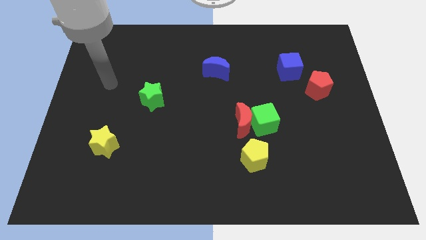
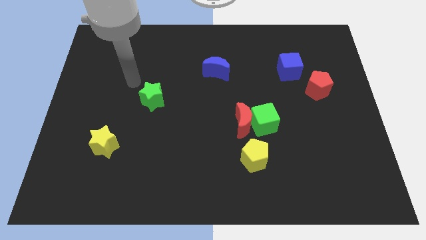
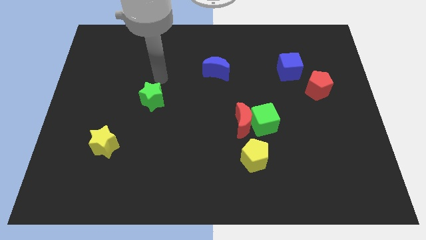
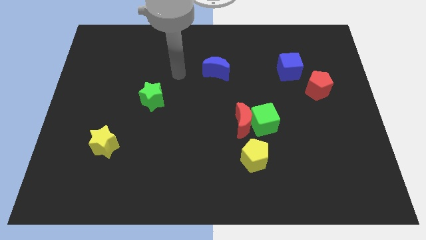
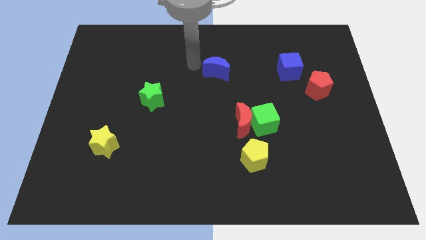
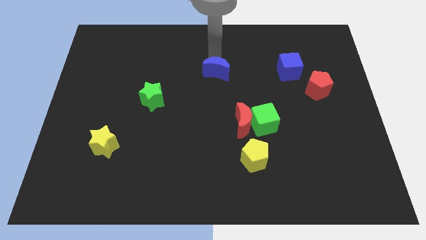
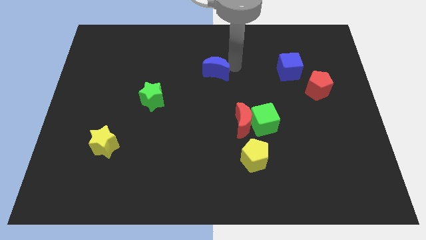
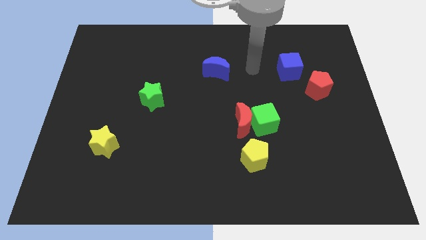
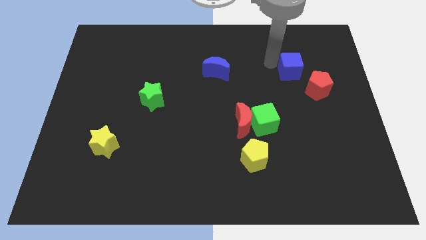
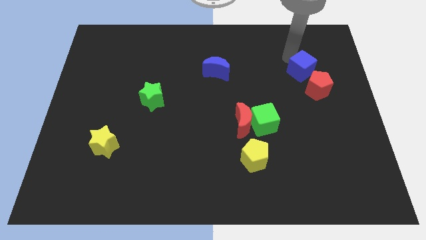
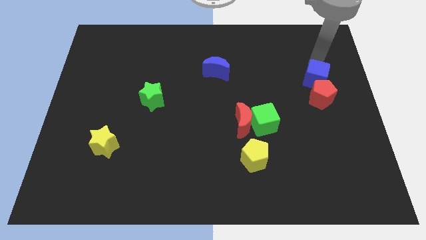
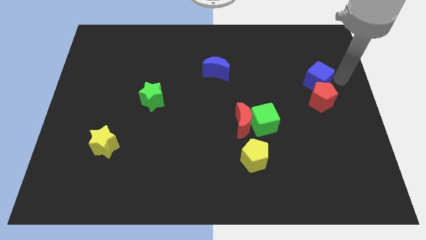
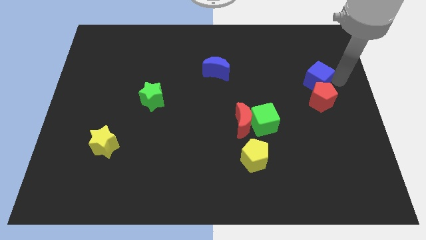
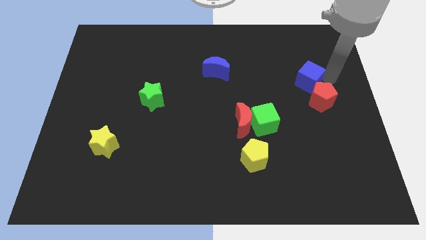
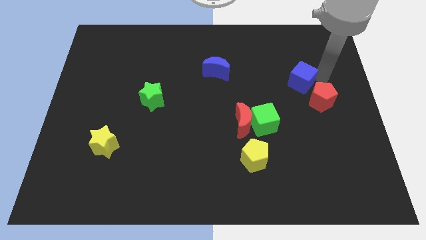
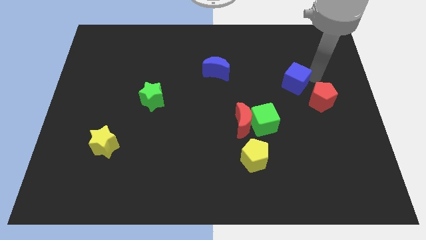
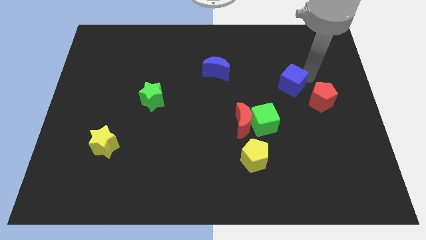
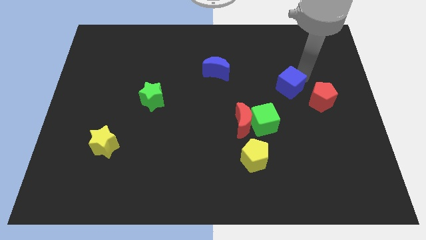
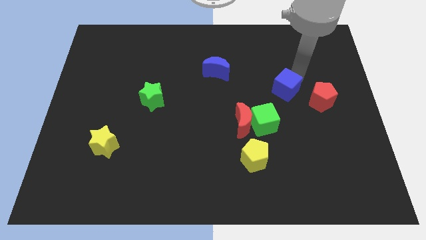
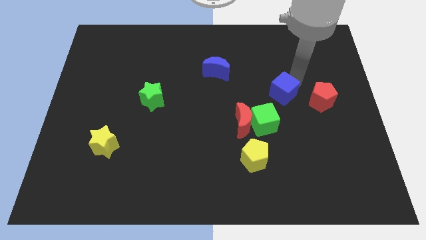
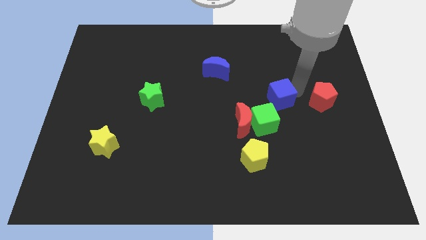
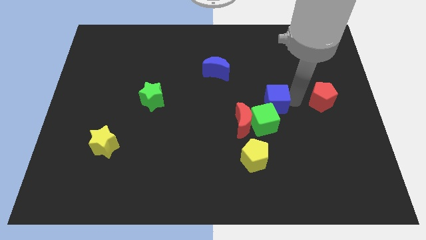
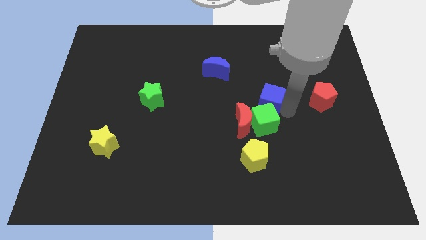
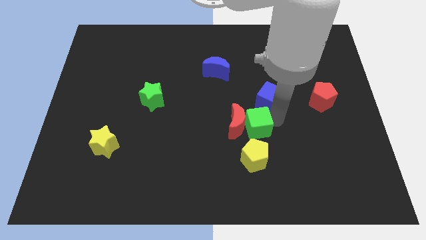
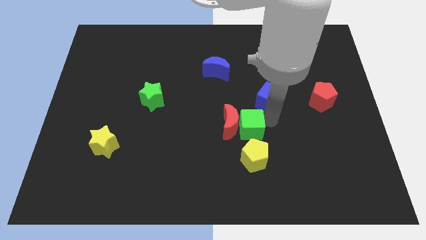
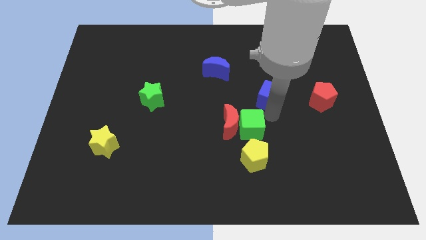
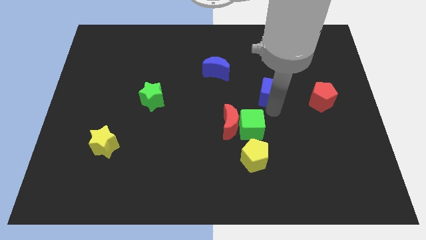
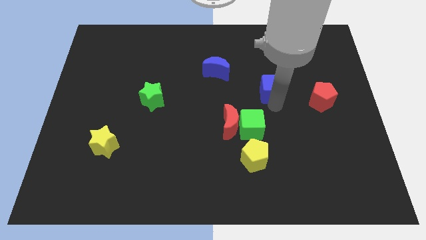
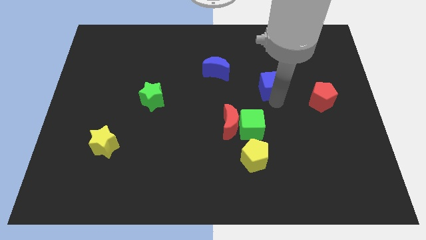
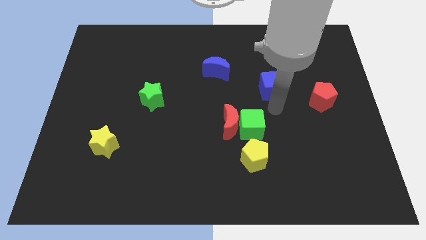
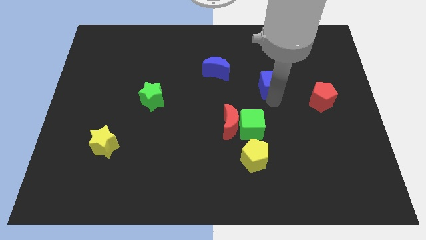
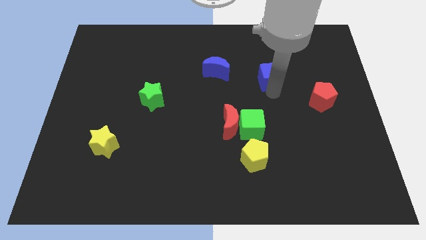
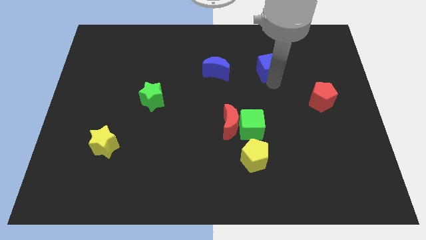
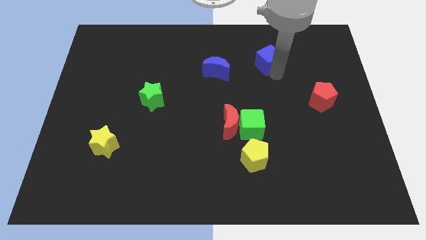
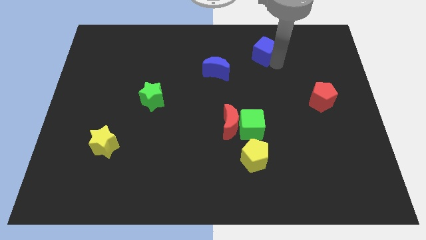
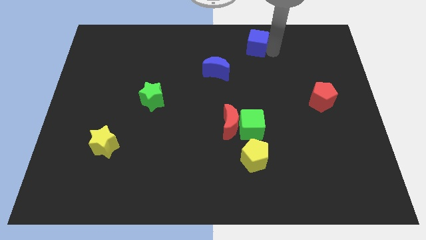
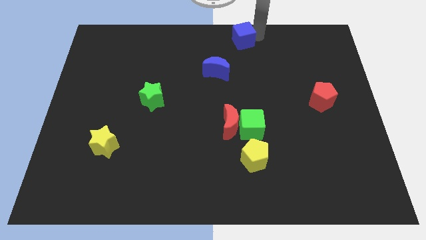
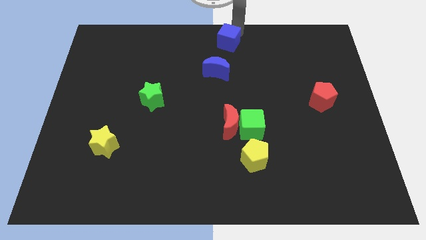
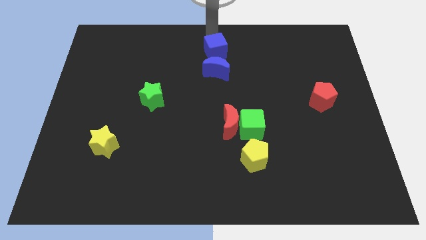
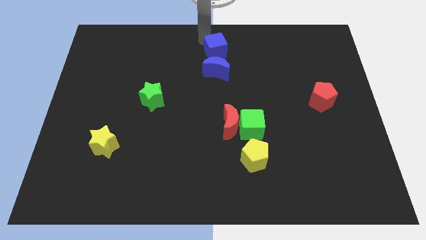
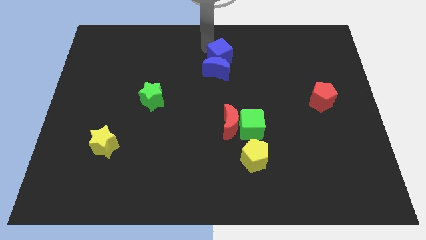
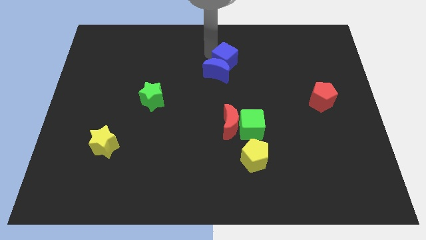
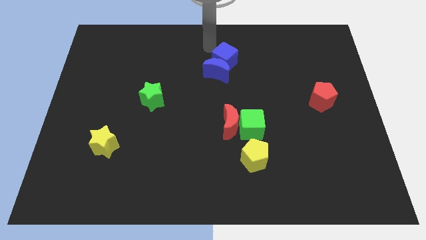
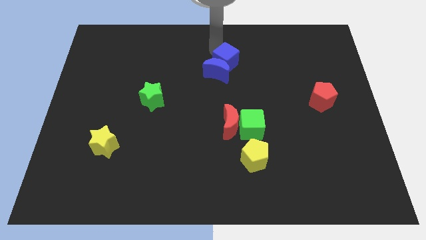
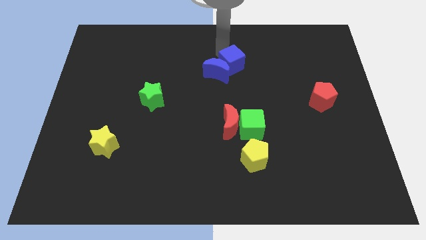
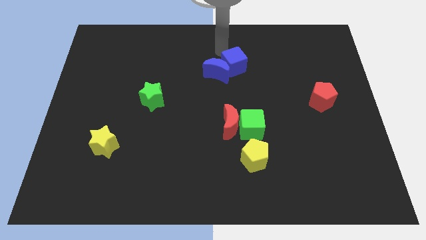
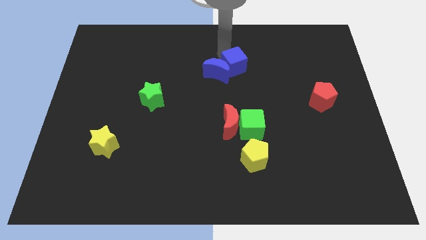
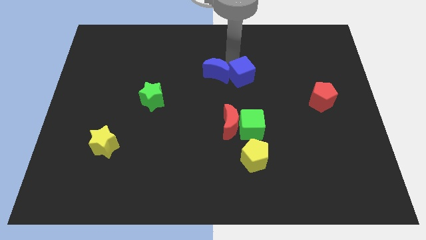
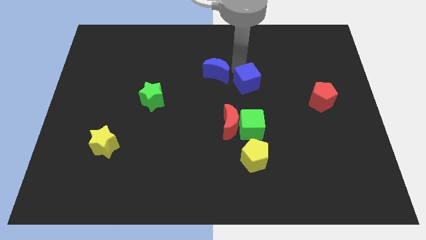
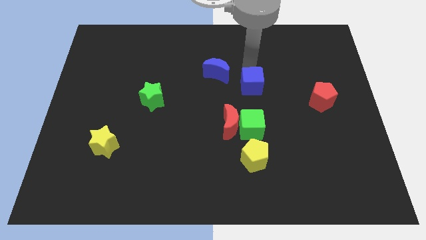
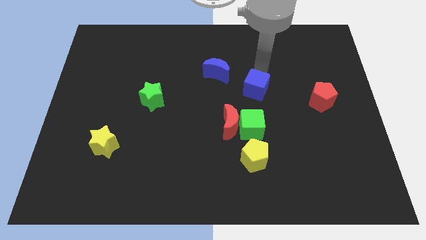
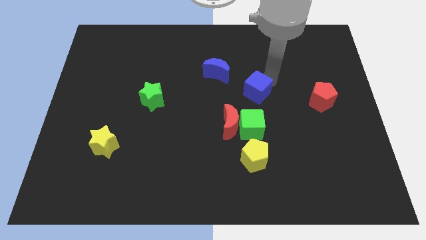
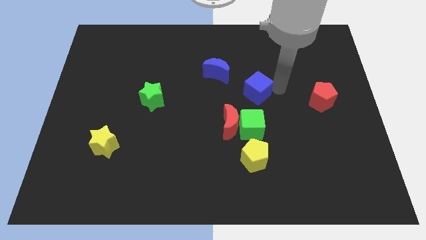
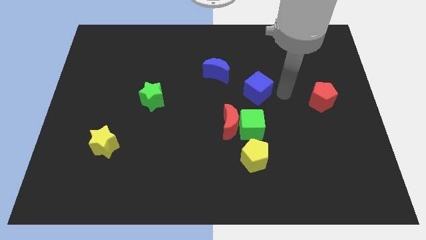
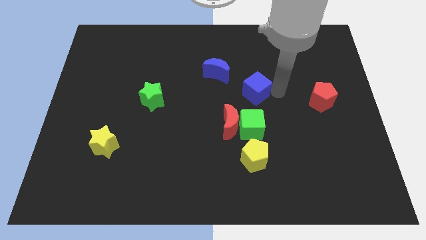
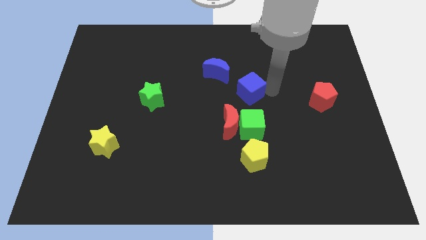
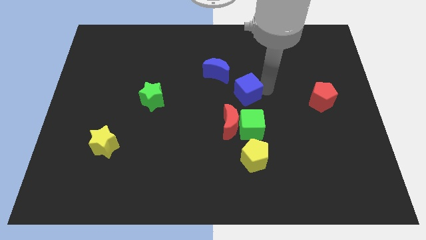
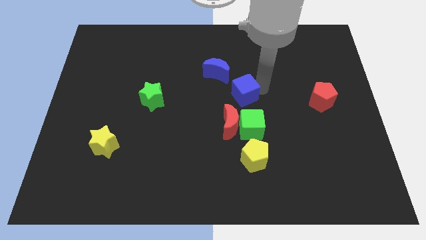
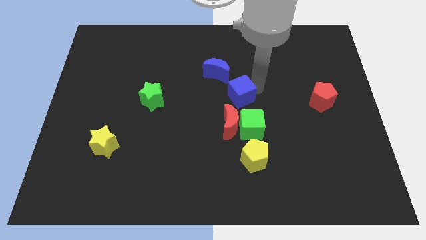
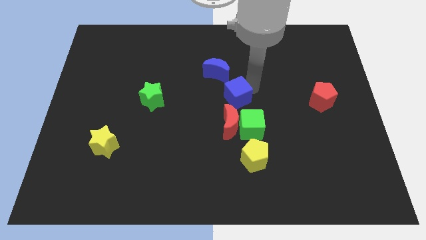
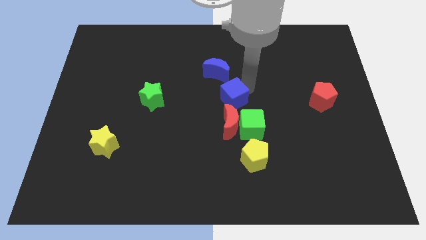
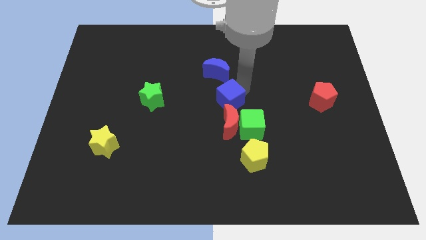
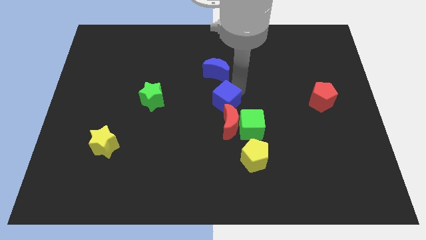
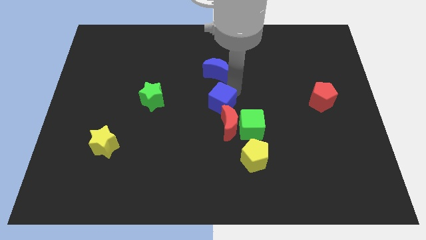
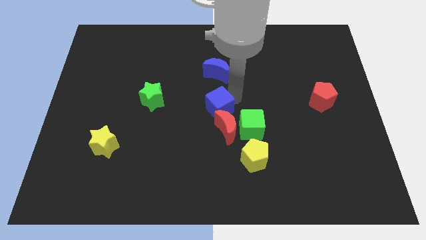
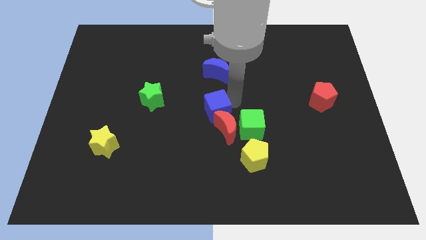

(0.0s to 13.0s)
move the blue cube to the right of the green star

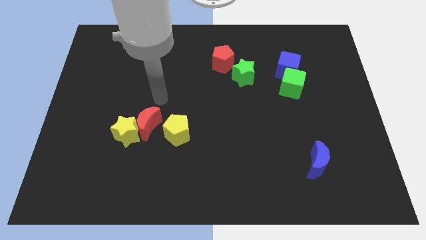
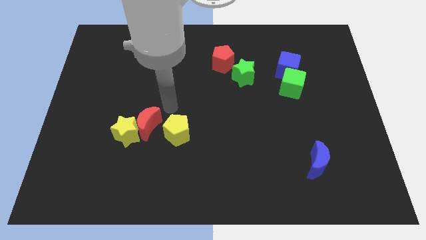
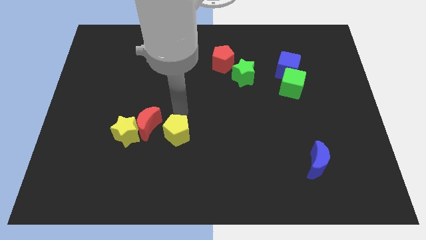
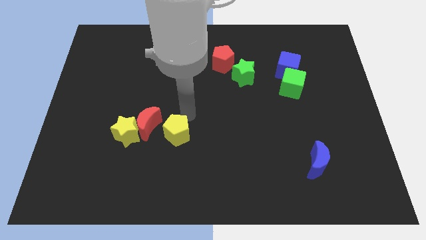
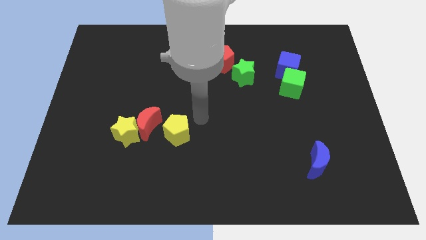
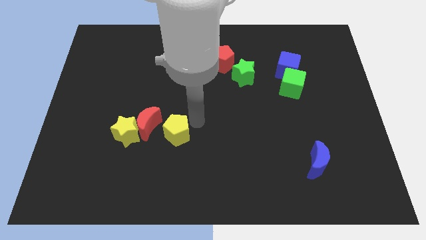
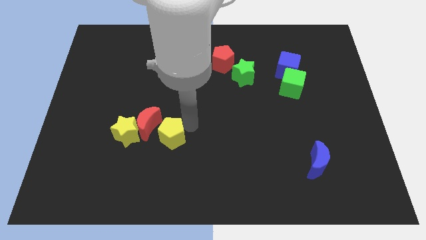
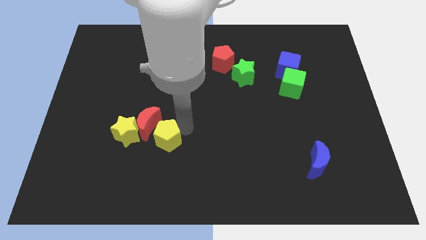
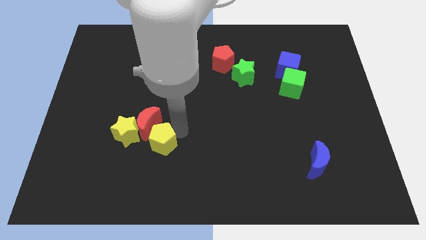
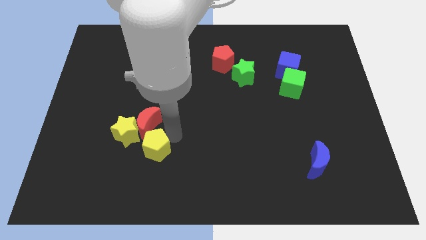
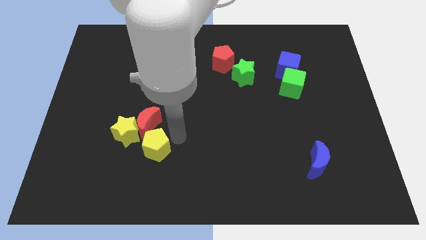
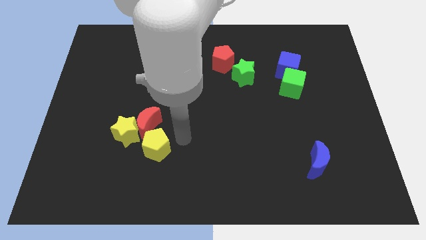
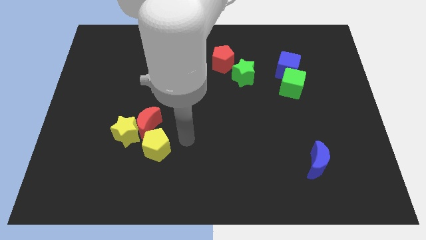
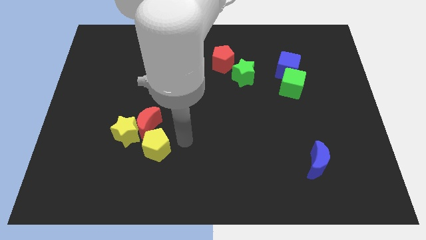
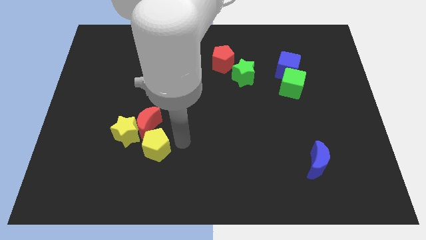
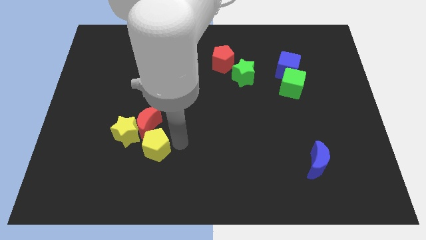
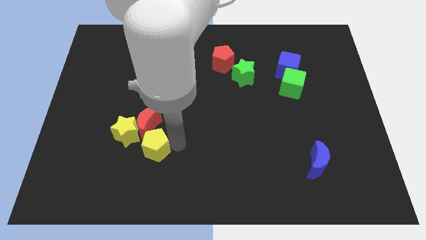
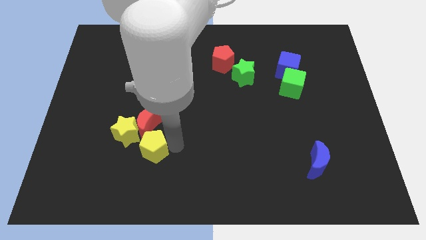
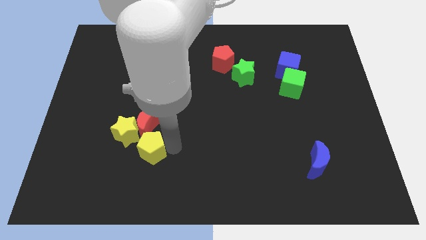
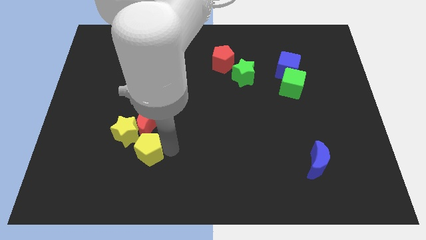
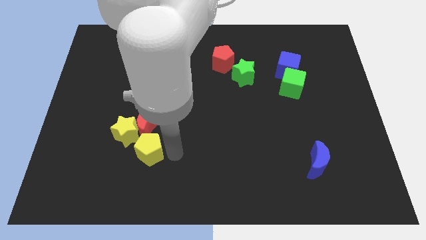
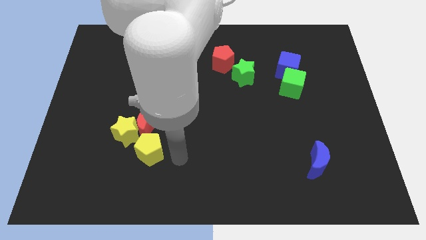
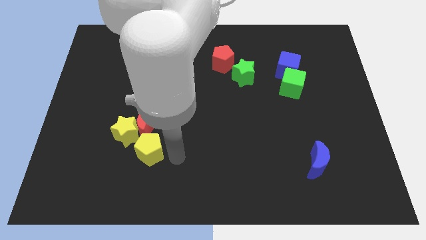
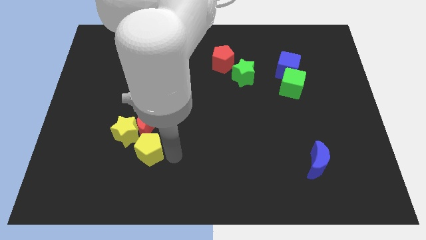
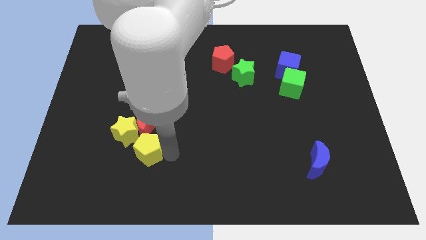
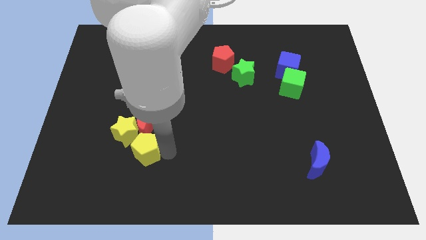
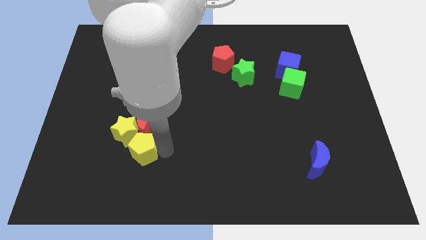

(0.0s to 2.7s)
push the yellow pentagon to the bottom left of the red moon
